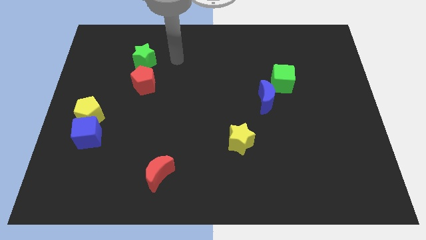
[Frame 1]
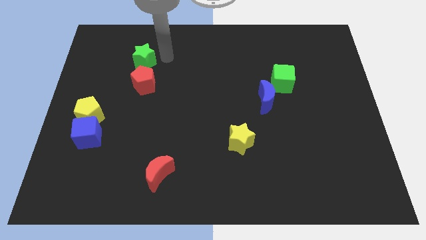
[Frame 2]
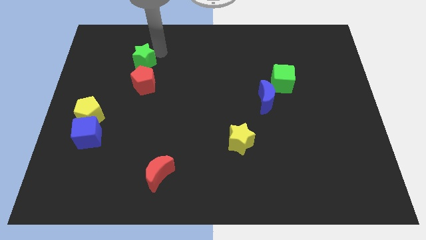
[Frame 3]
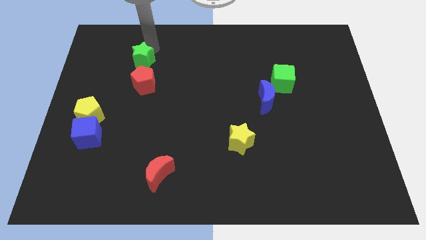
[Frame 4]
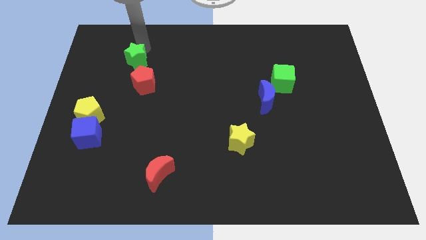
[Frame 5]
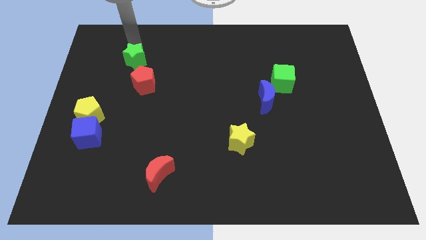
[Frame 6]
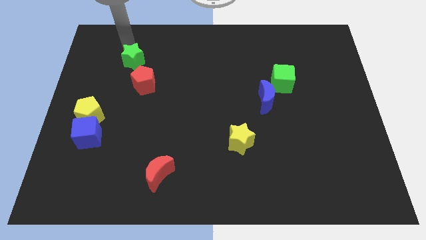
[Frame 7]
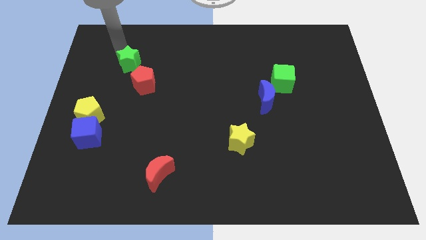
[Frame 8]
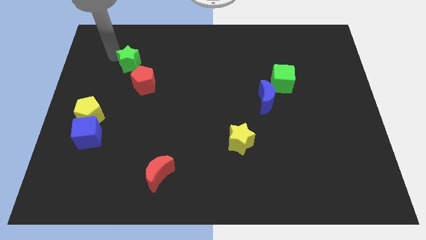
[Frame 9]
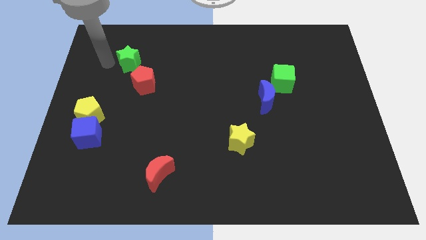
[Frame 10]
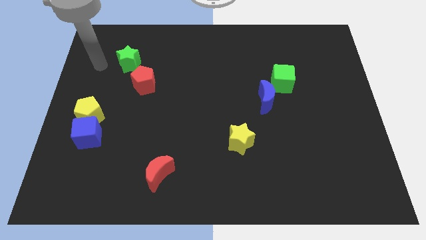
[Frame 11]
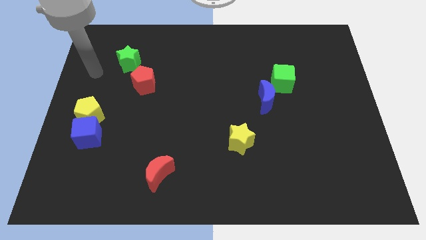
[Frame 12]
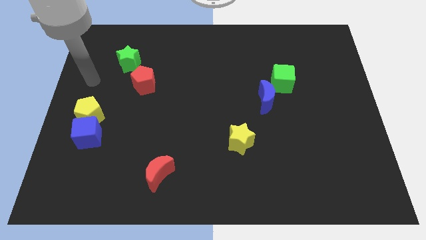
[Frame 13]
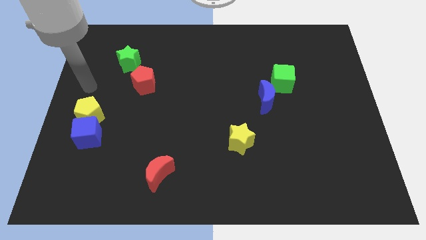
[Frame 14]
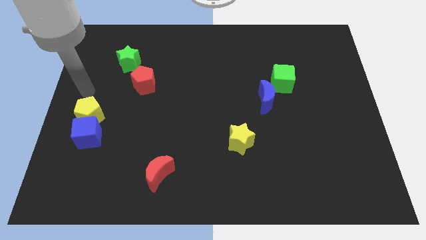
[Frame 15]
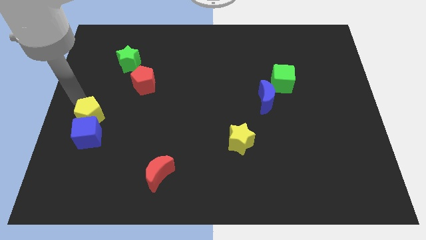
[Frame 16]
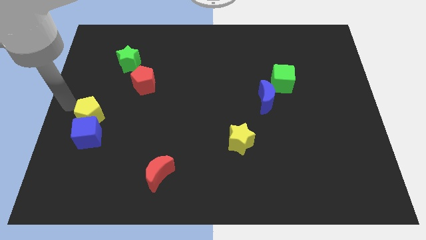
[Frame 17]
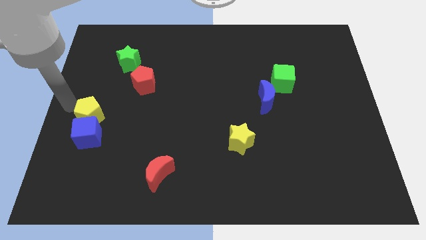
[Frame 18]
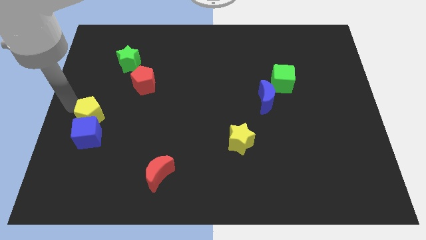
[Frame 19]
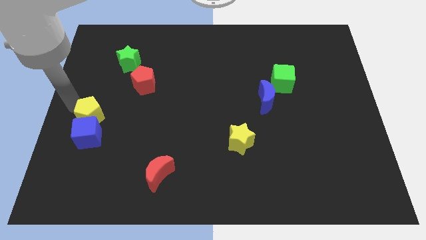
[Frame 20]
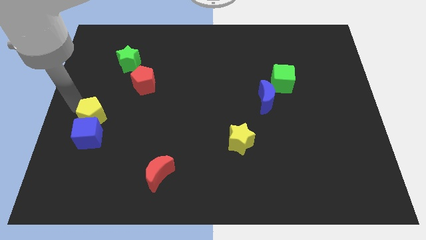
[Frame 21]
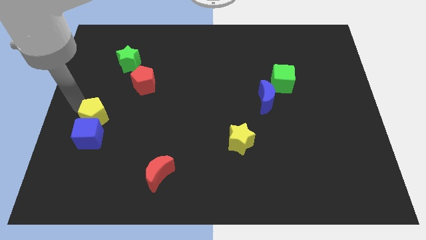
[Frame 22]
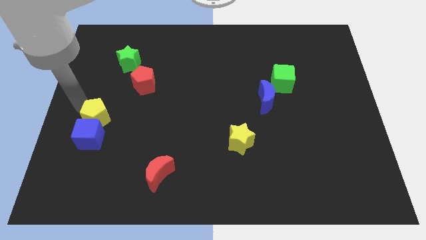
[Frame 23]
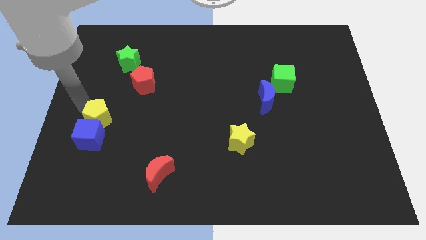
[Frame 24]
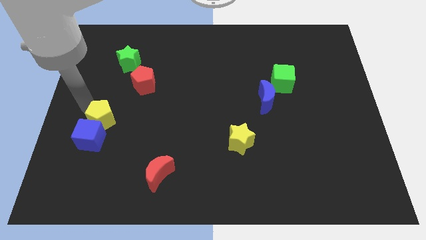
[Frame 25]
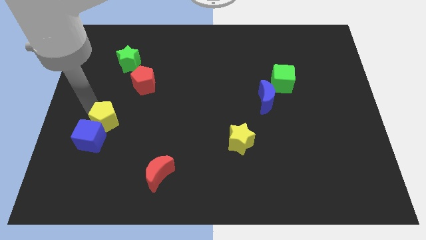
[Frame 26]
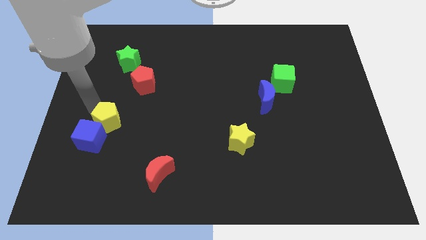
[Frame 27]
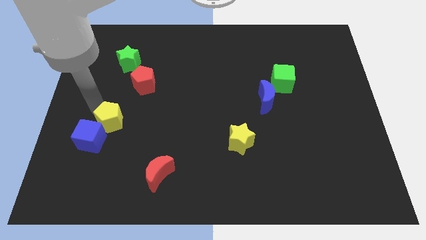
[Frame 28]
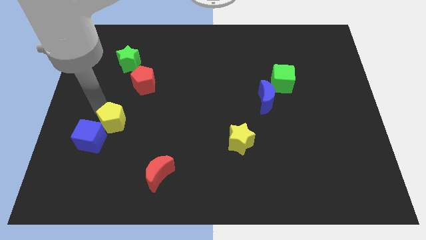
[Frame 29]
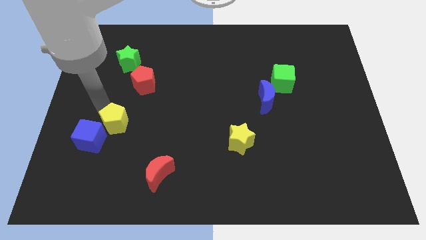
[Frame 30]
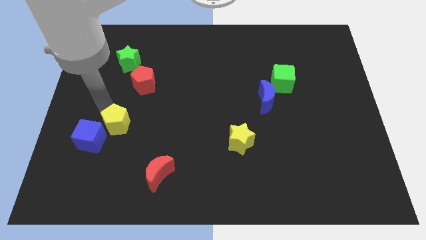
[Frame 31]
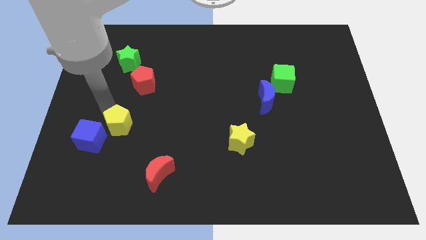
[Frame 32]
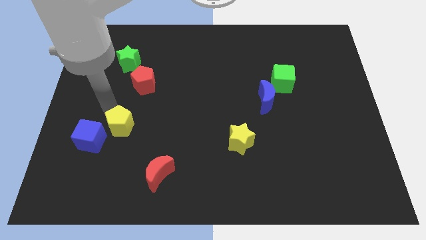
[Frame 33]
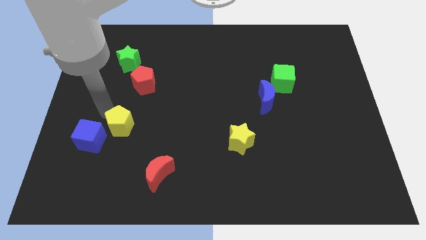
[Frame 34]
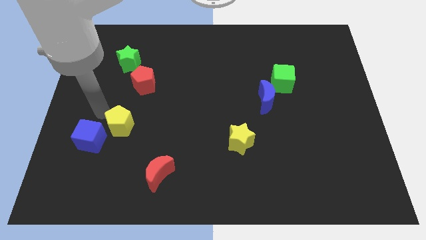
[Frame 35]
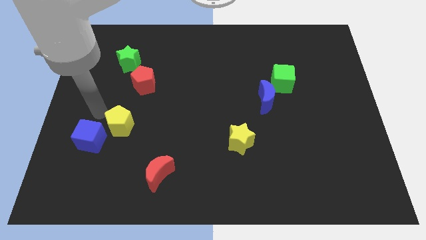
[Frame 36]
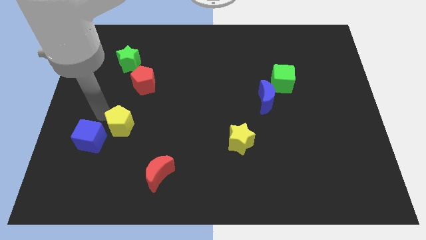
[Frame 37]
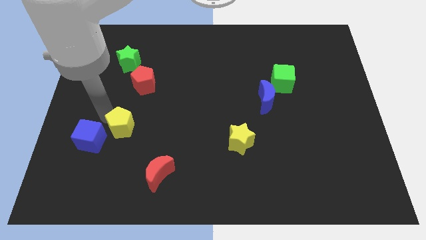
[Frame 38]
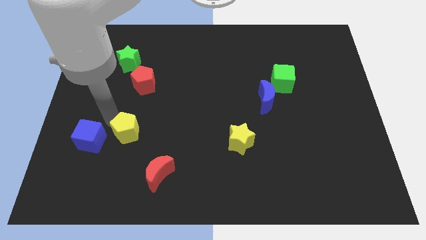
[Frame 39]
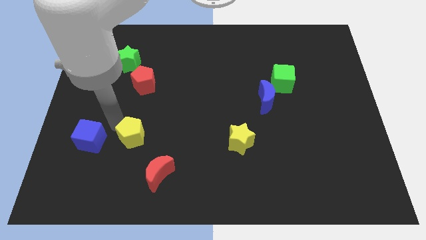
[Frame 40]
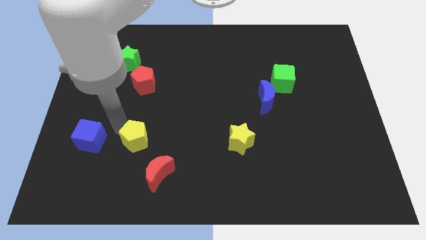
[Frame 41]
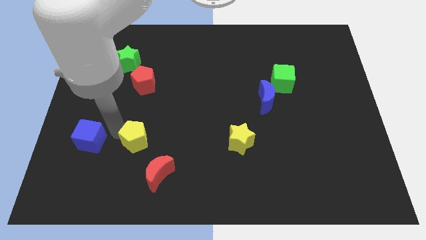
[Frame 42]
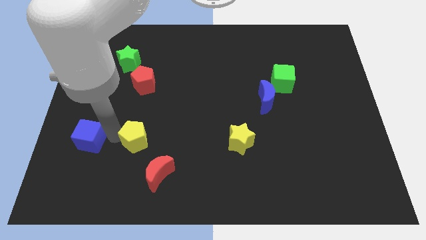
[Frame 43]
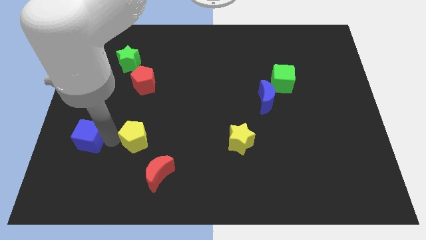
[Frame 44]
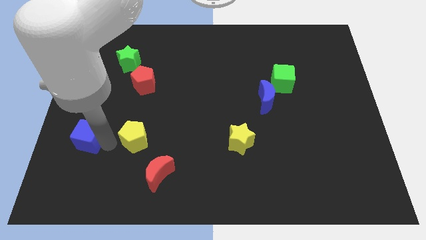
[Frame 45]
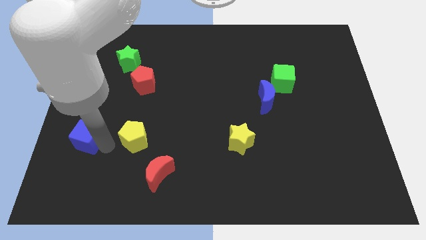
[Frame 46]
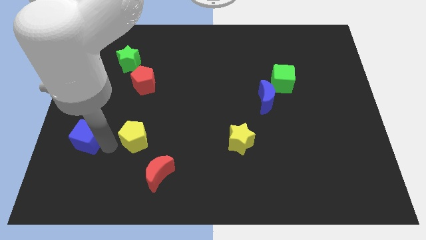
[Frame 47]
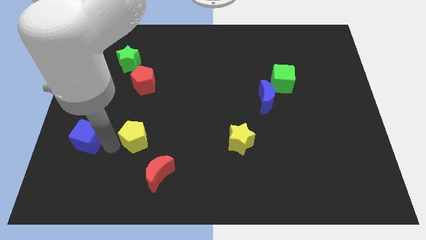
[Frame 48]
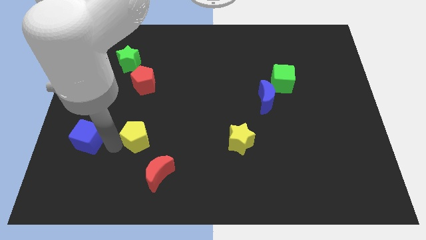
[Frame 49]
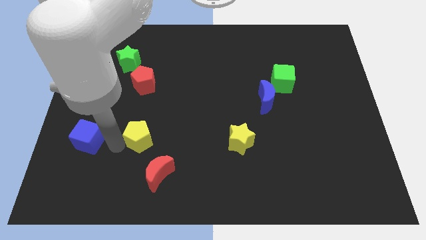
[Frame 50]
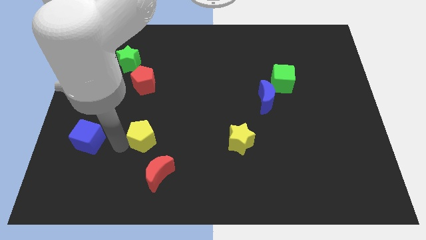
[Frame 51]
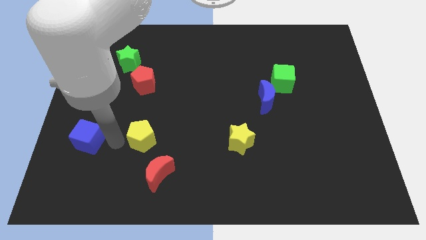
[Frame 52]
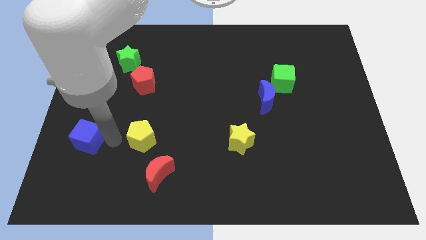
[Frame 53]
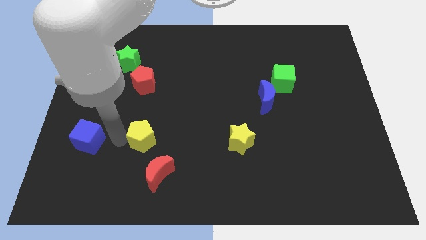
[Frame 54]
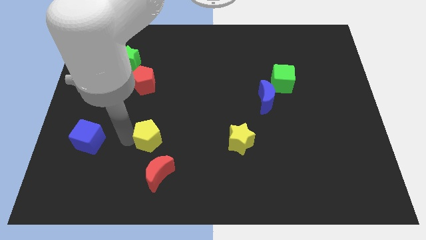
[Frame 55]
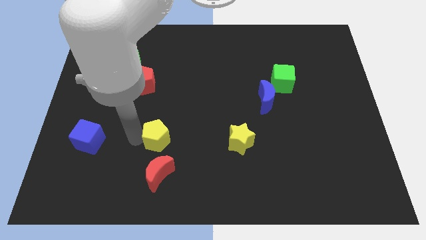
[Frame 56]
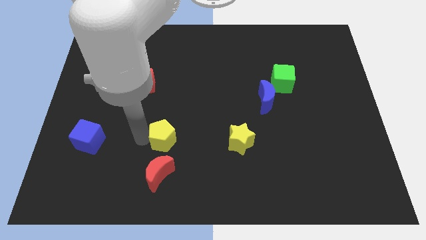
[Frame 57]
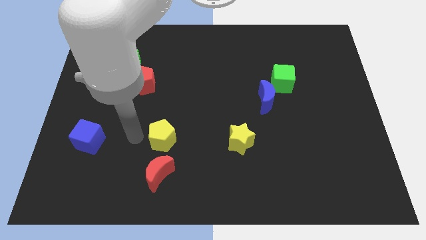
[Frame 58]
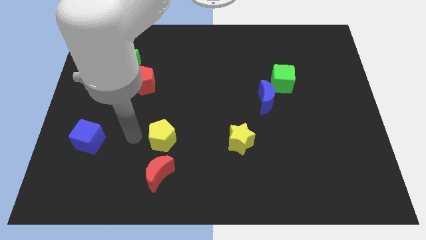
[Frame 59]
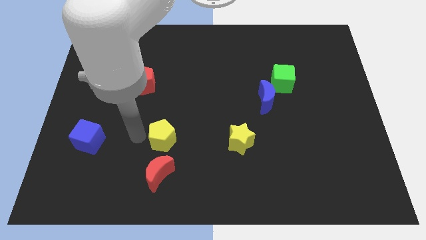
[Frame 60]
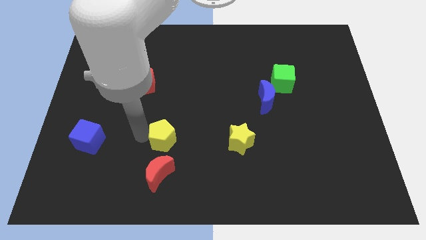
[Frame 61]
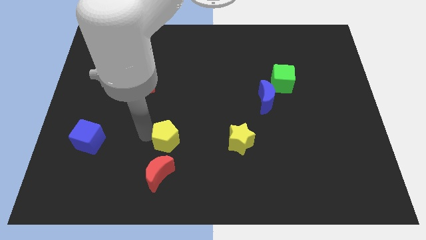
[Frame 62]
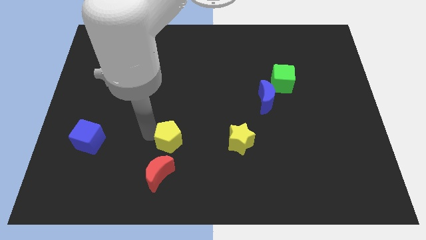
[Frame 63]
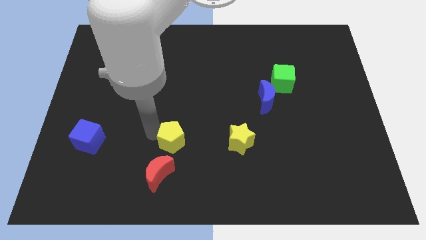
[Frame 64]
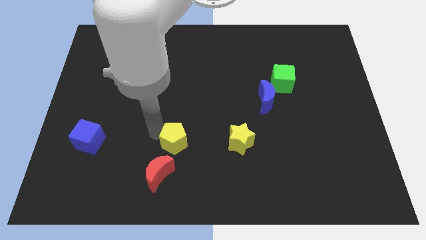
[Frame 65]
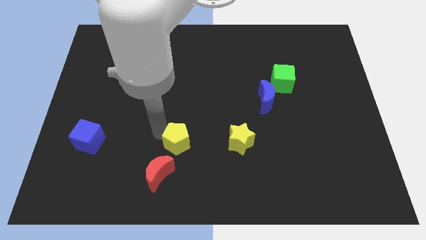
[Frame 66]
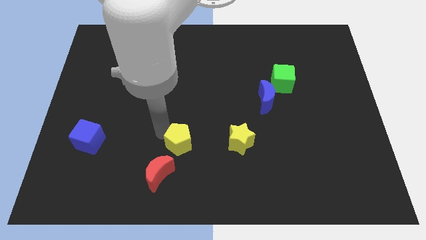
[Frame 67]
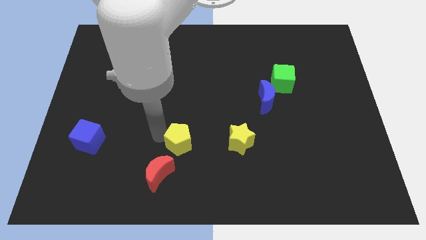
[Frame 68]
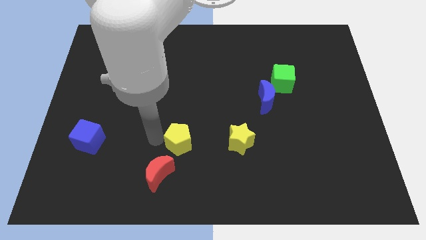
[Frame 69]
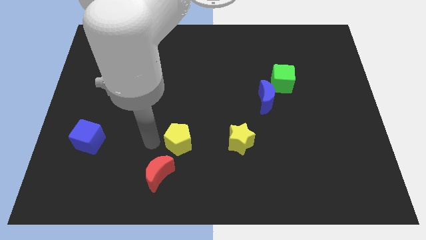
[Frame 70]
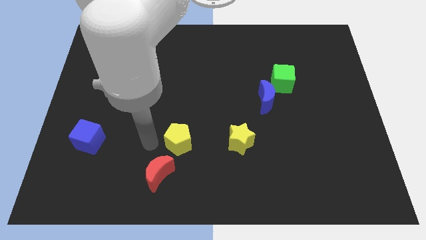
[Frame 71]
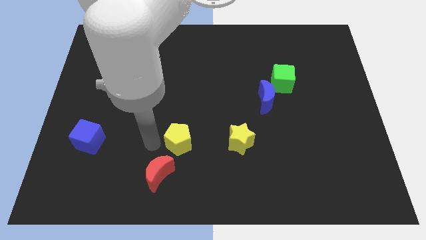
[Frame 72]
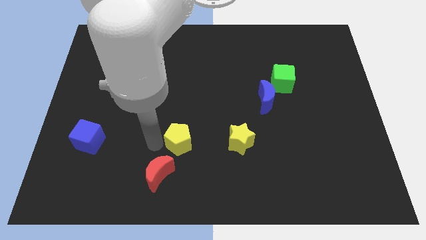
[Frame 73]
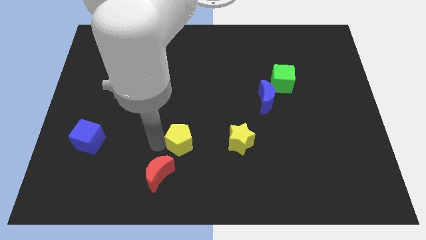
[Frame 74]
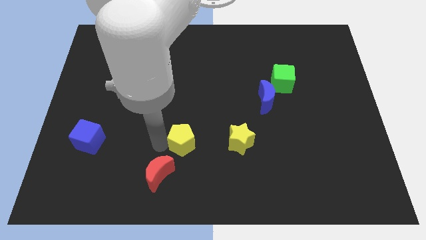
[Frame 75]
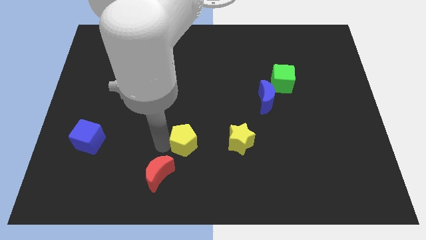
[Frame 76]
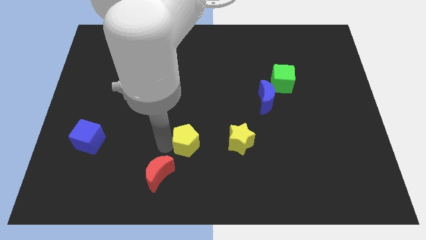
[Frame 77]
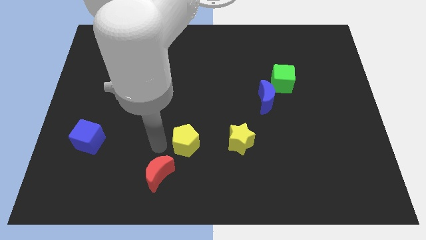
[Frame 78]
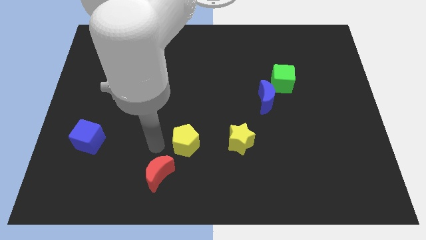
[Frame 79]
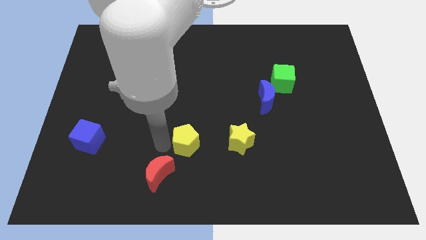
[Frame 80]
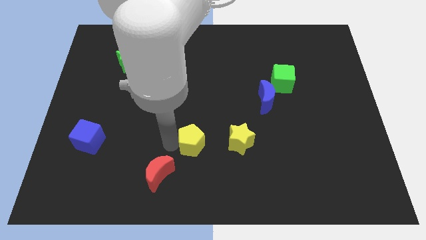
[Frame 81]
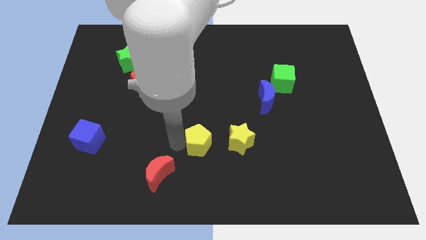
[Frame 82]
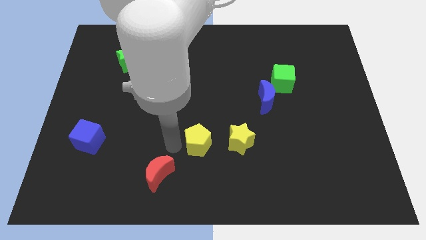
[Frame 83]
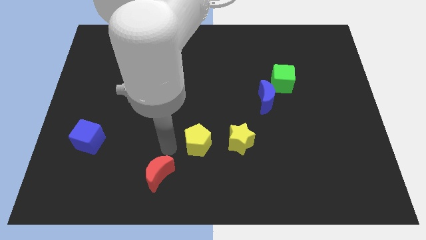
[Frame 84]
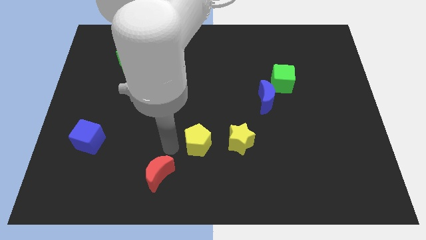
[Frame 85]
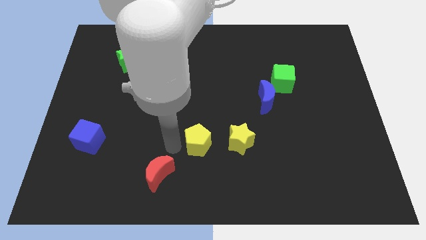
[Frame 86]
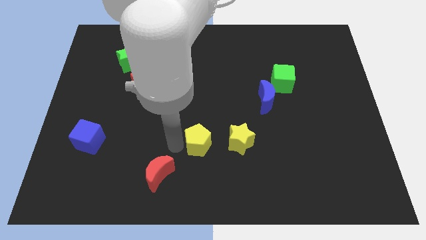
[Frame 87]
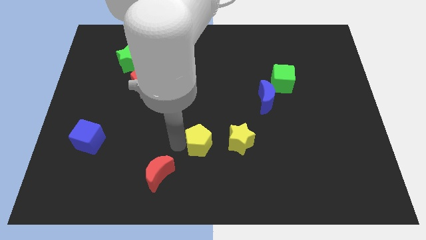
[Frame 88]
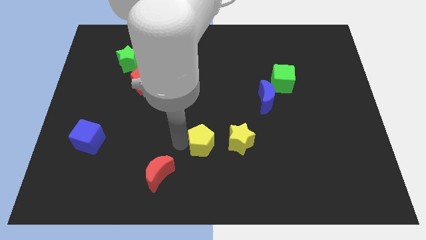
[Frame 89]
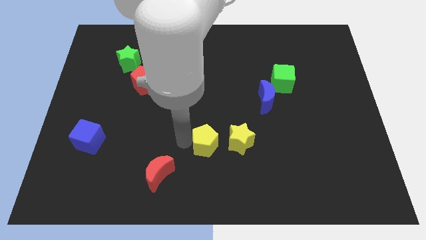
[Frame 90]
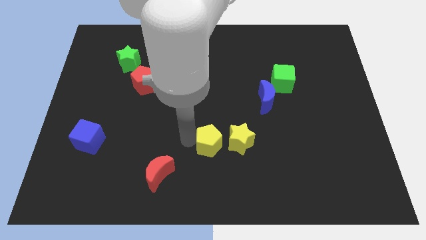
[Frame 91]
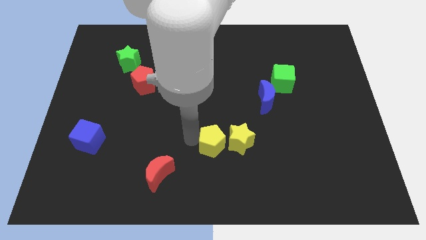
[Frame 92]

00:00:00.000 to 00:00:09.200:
put the yellow pentagon towards the yellow star
